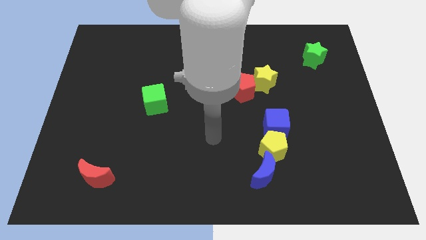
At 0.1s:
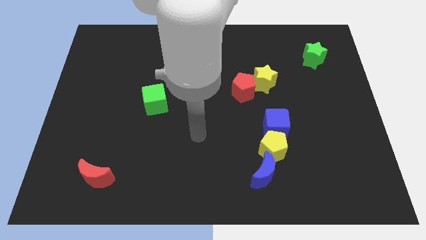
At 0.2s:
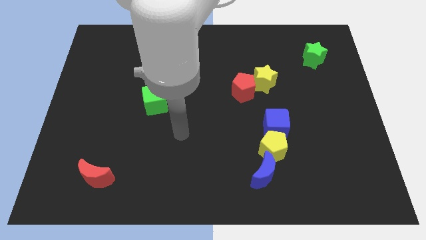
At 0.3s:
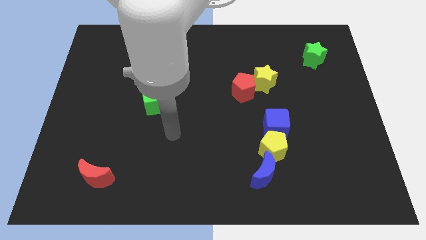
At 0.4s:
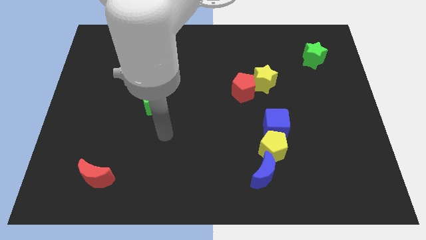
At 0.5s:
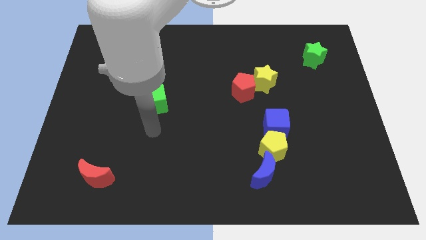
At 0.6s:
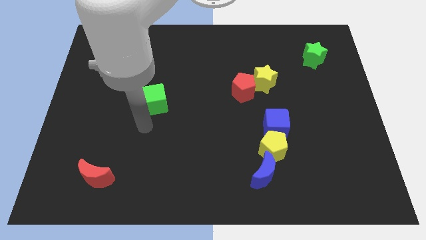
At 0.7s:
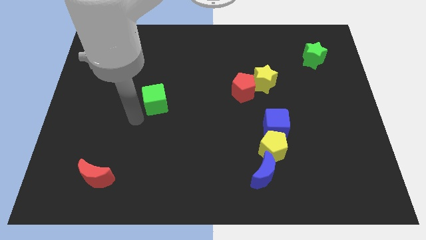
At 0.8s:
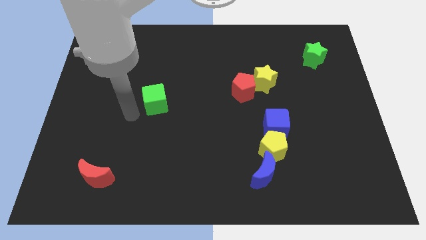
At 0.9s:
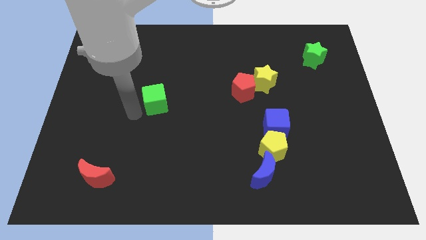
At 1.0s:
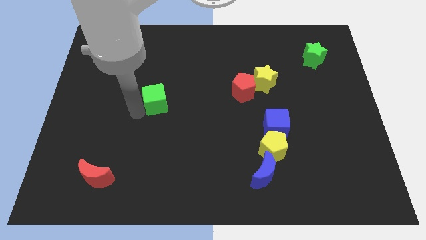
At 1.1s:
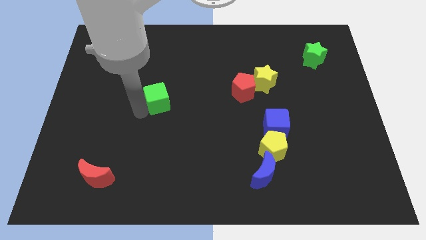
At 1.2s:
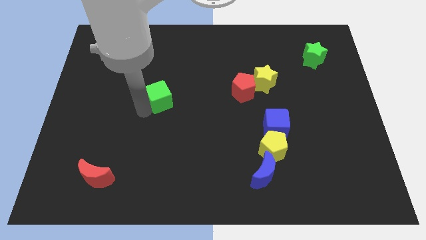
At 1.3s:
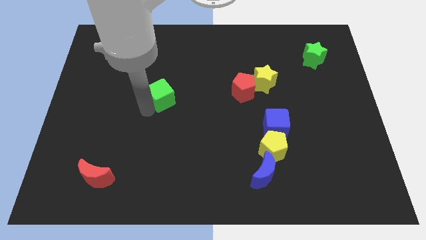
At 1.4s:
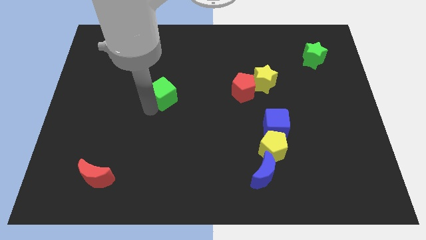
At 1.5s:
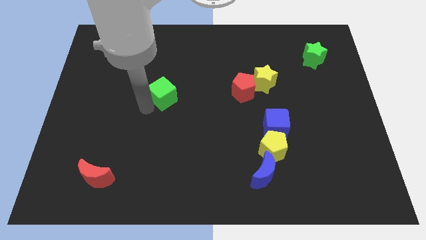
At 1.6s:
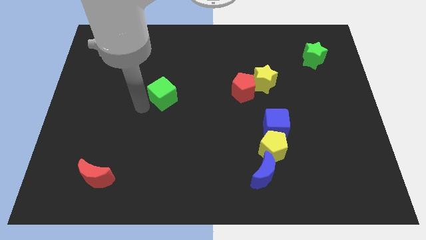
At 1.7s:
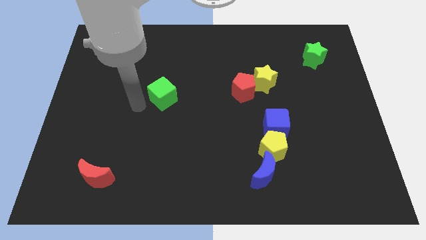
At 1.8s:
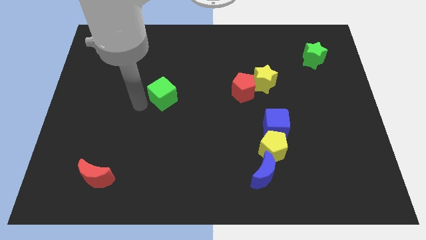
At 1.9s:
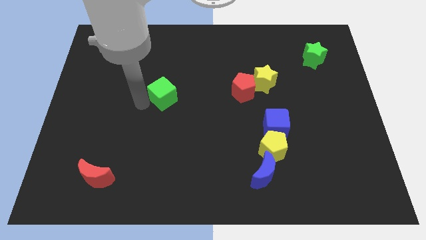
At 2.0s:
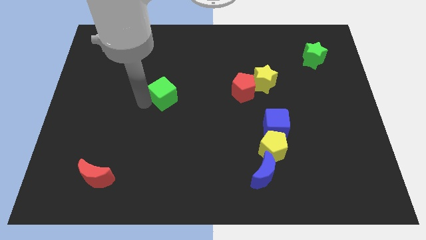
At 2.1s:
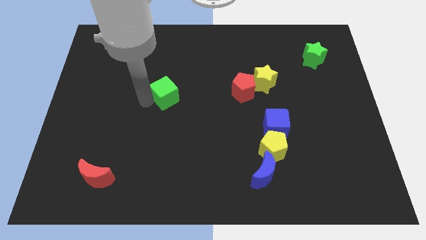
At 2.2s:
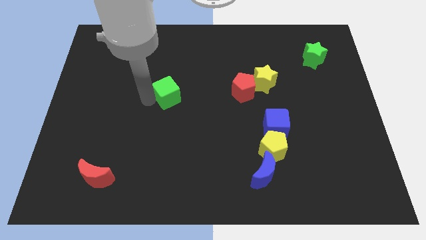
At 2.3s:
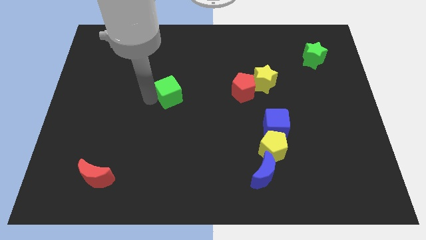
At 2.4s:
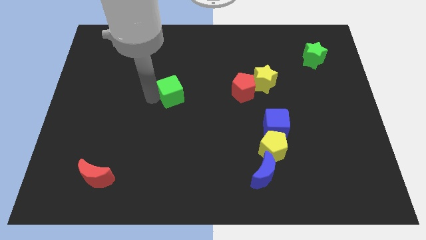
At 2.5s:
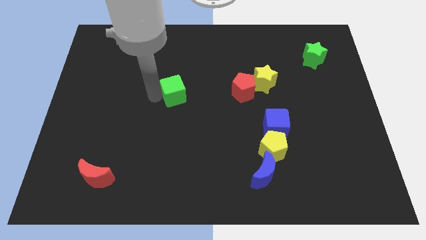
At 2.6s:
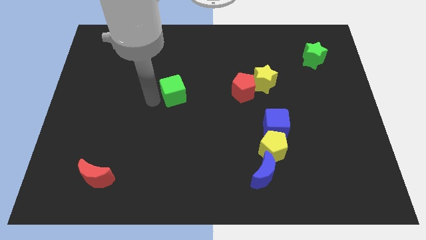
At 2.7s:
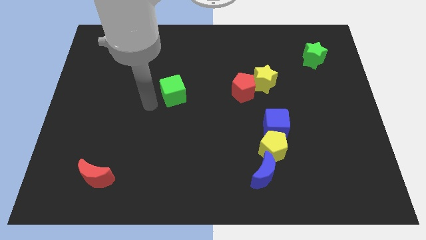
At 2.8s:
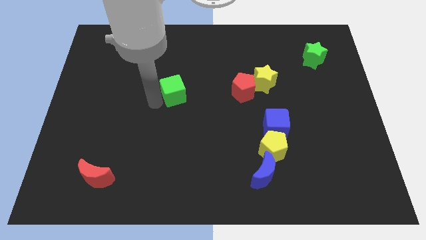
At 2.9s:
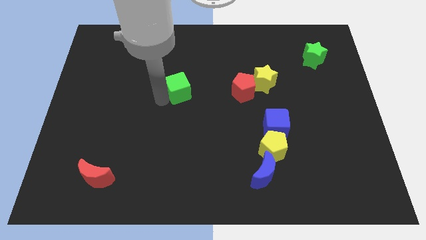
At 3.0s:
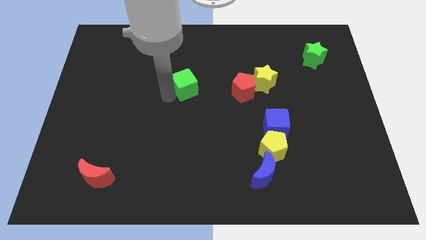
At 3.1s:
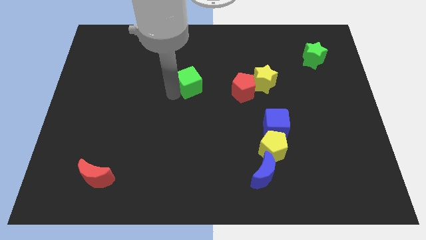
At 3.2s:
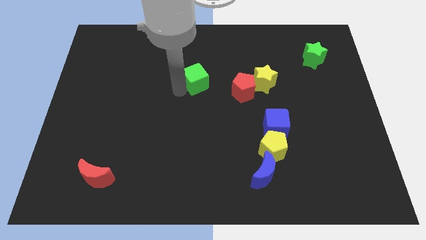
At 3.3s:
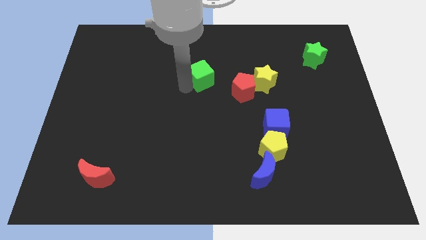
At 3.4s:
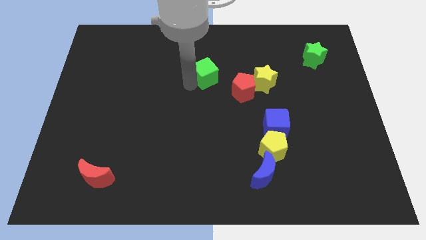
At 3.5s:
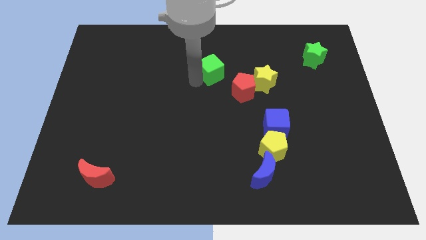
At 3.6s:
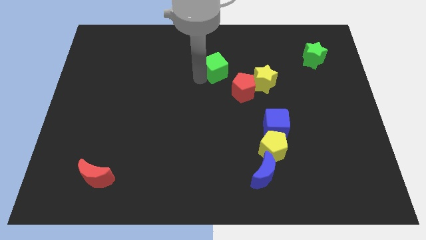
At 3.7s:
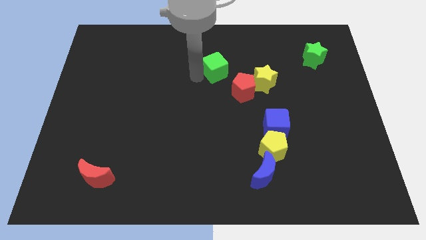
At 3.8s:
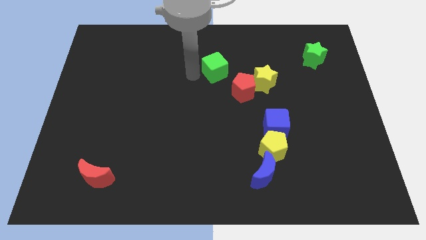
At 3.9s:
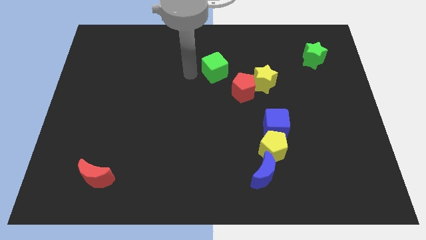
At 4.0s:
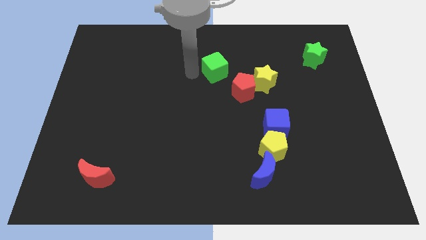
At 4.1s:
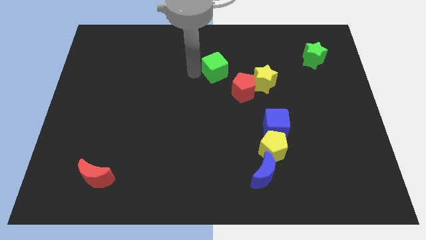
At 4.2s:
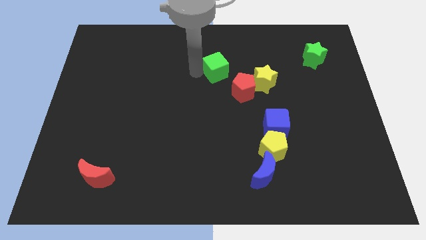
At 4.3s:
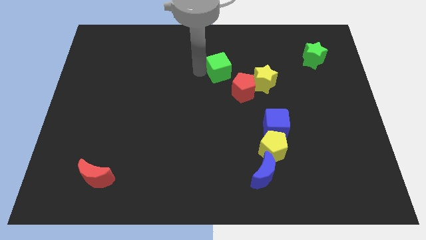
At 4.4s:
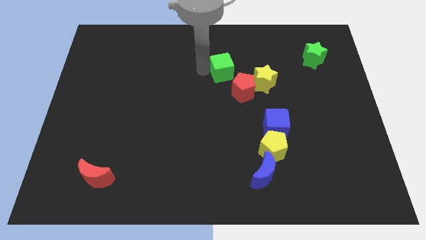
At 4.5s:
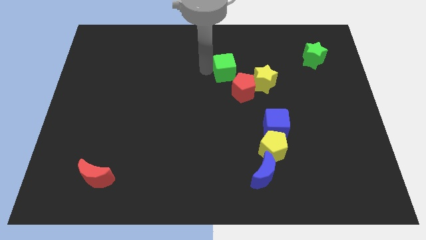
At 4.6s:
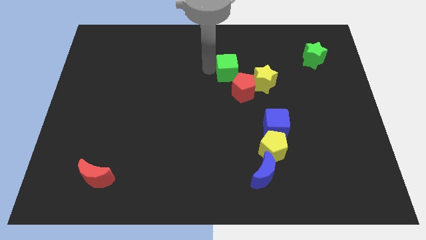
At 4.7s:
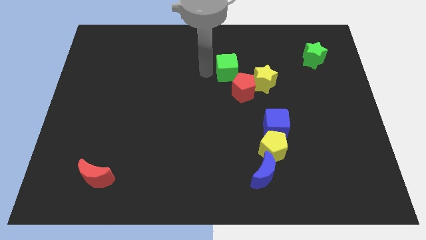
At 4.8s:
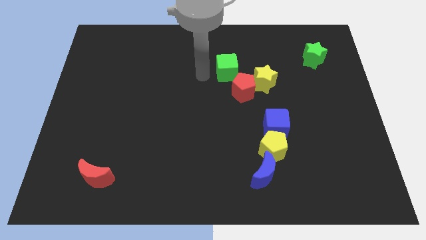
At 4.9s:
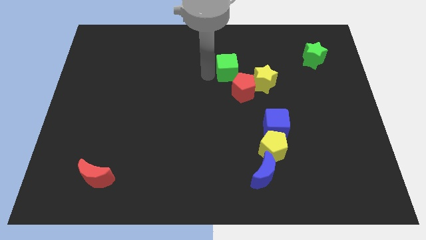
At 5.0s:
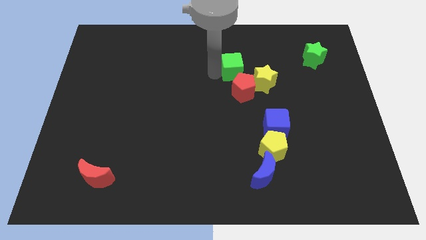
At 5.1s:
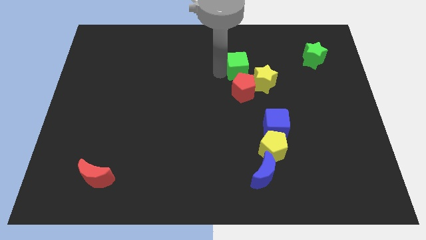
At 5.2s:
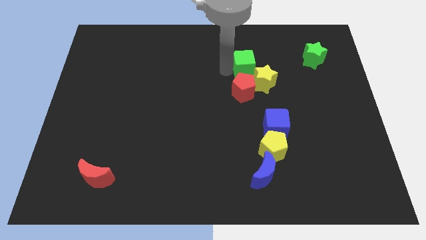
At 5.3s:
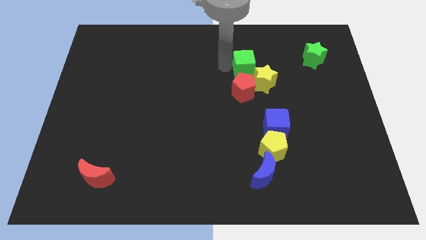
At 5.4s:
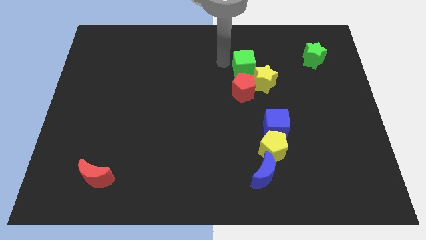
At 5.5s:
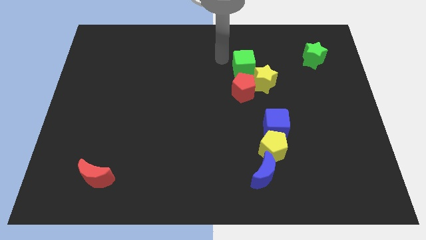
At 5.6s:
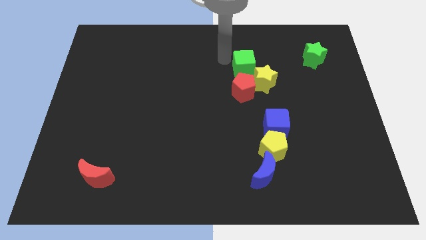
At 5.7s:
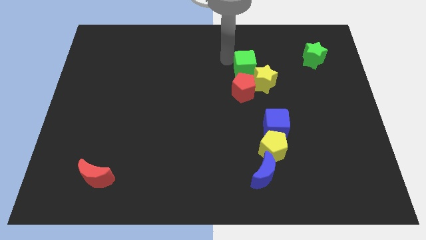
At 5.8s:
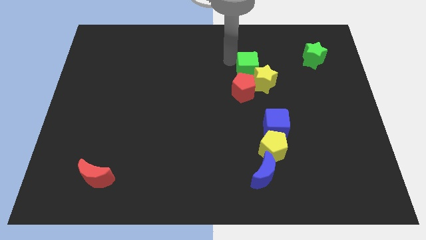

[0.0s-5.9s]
put the green cube diagonally up and to the right of the red pentagon

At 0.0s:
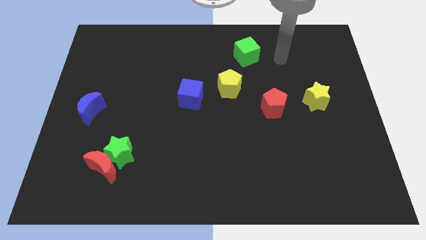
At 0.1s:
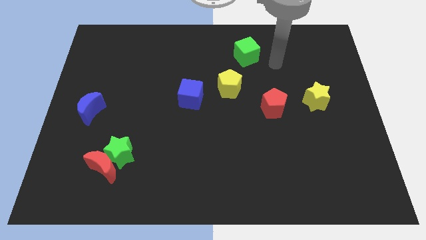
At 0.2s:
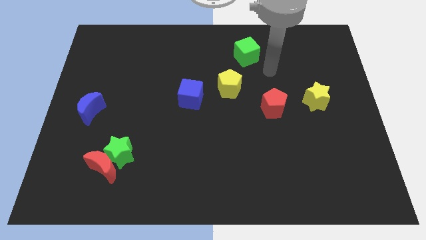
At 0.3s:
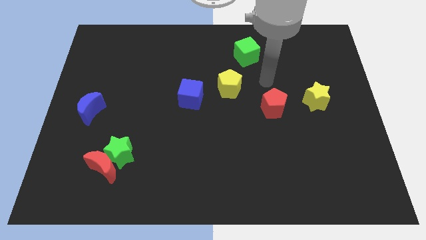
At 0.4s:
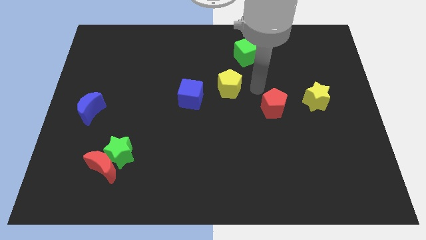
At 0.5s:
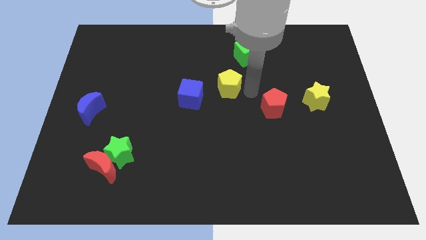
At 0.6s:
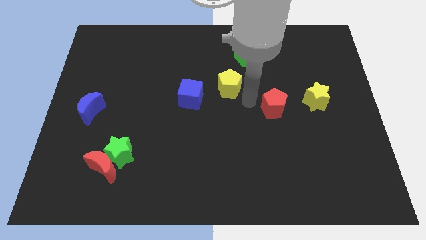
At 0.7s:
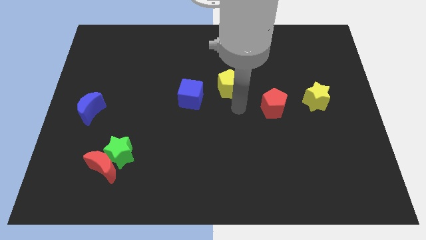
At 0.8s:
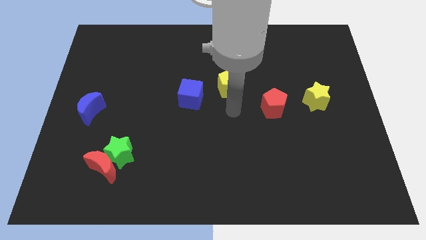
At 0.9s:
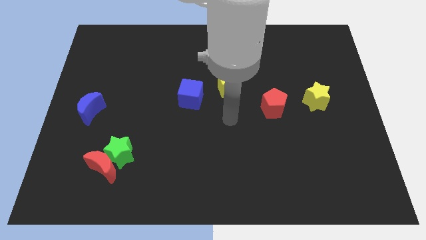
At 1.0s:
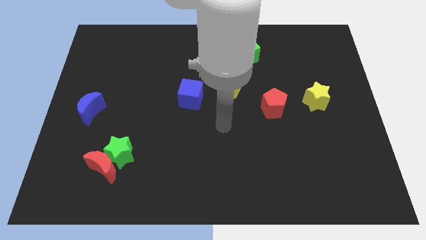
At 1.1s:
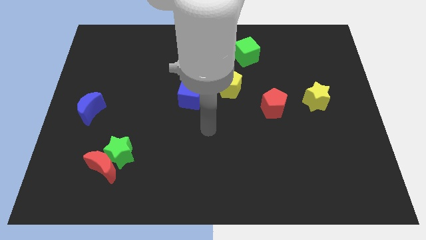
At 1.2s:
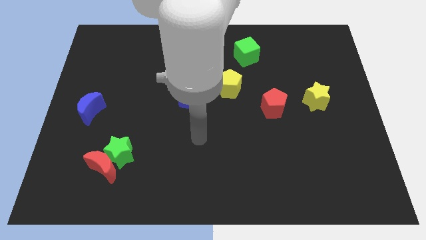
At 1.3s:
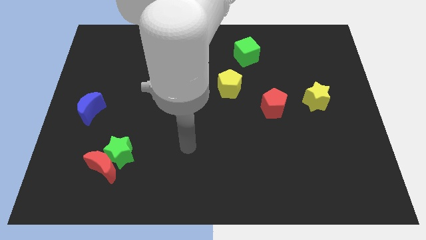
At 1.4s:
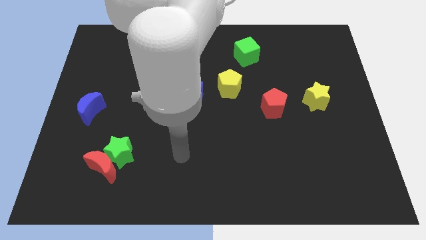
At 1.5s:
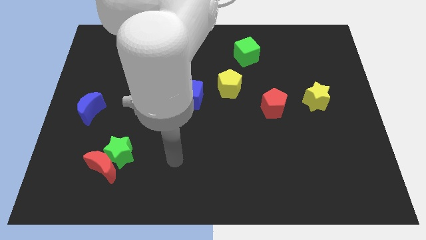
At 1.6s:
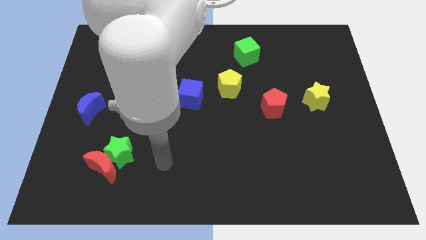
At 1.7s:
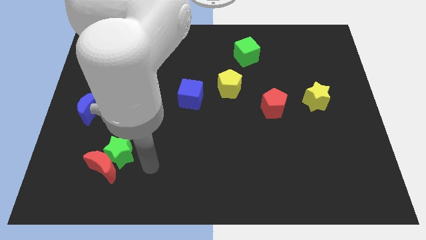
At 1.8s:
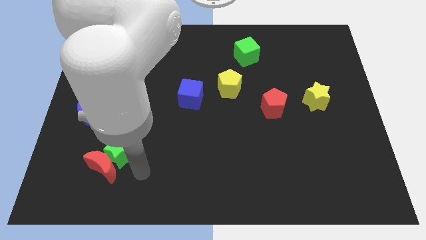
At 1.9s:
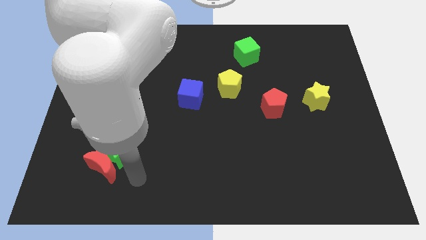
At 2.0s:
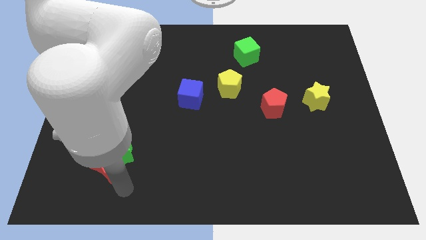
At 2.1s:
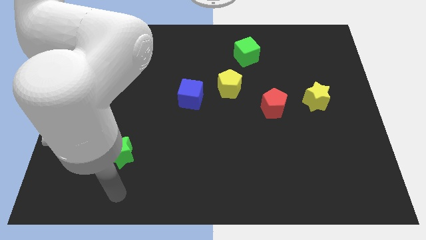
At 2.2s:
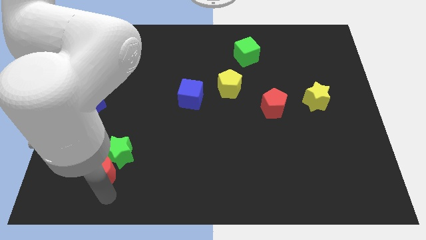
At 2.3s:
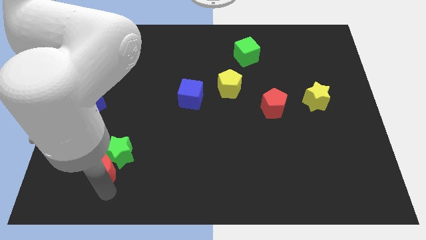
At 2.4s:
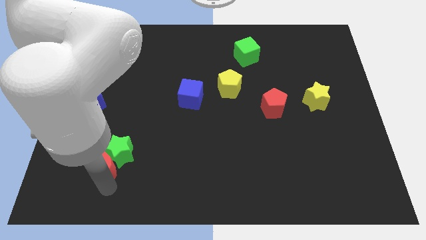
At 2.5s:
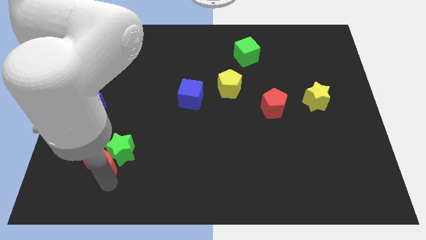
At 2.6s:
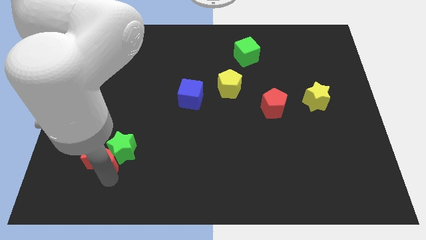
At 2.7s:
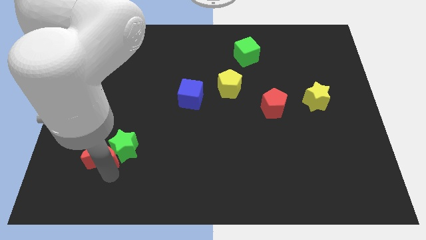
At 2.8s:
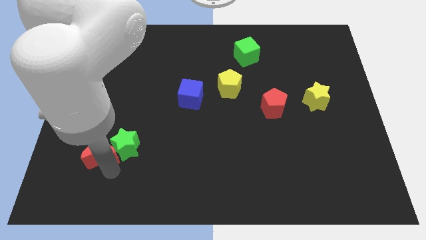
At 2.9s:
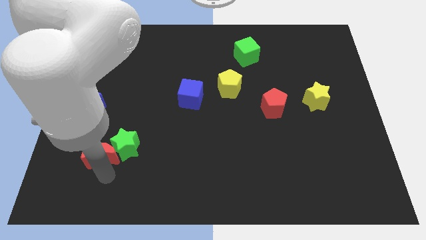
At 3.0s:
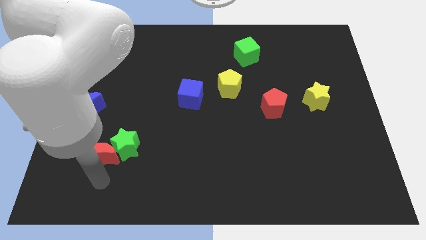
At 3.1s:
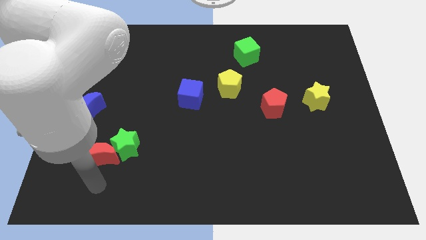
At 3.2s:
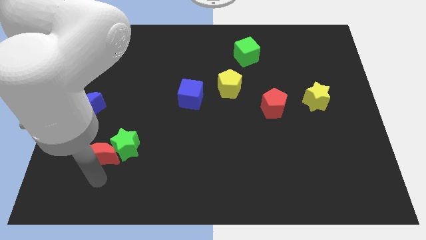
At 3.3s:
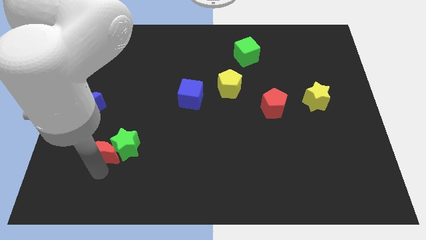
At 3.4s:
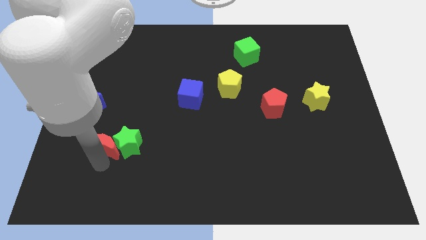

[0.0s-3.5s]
put the red moon diagonally up and to the left of the green star
